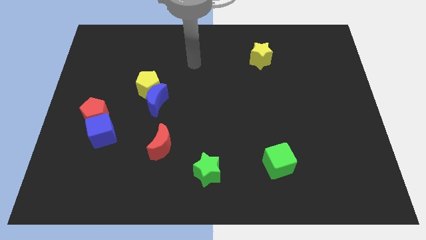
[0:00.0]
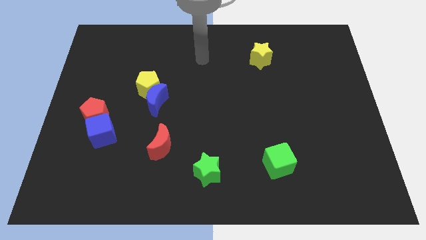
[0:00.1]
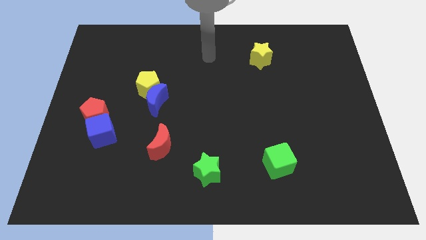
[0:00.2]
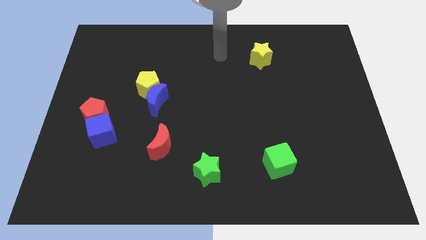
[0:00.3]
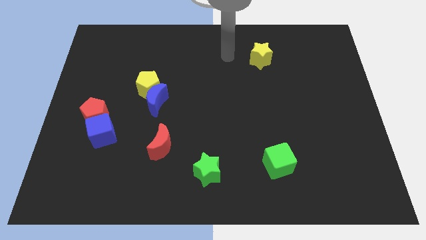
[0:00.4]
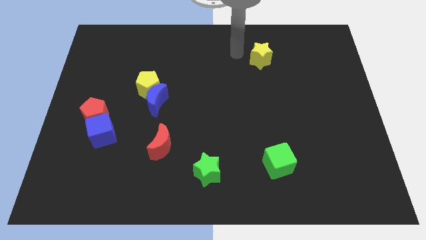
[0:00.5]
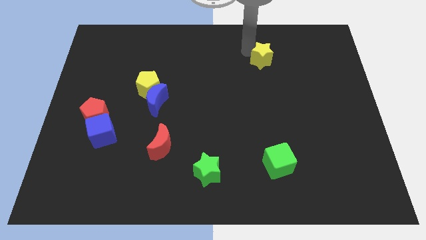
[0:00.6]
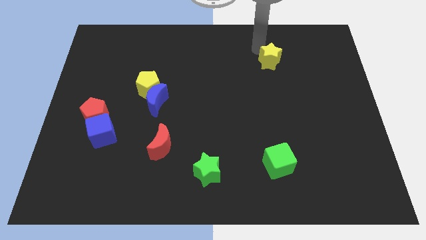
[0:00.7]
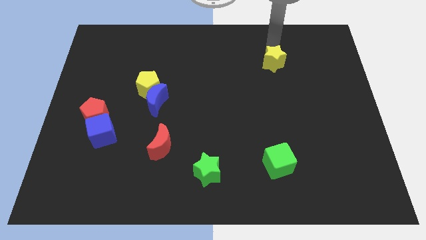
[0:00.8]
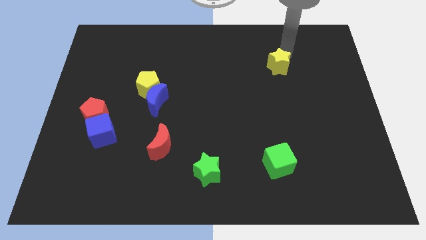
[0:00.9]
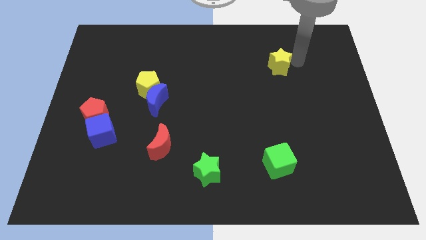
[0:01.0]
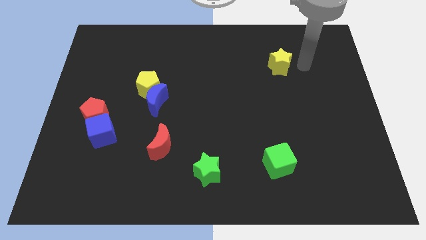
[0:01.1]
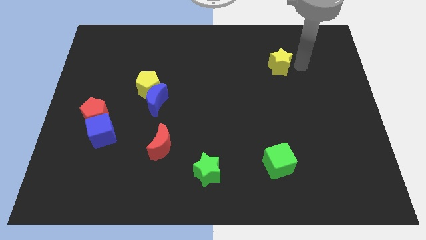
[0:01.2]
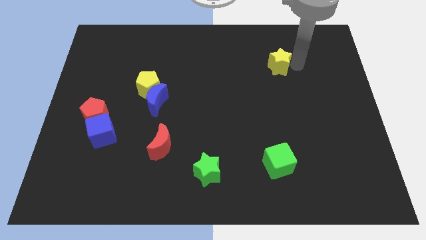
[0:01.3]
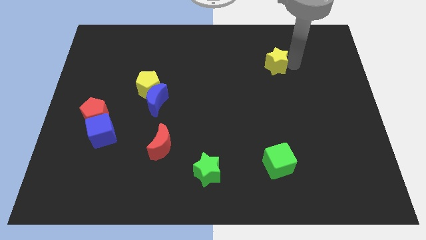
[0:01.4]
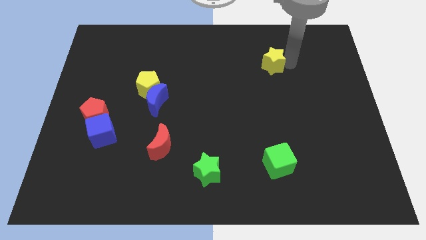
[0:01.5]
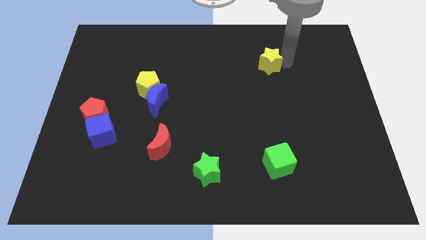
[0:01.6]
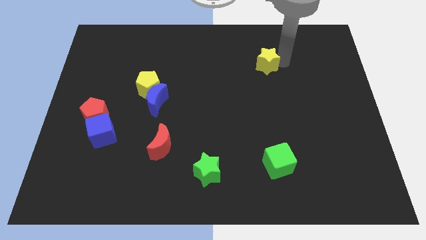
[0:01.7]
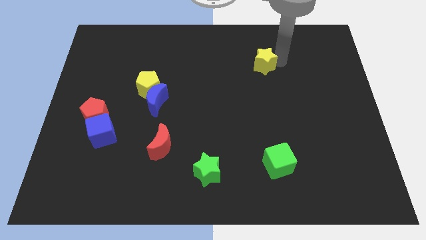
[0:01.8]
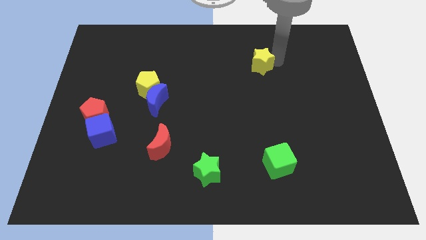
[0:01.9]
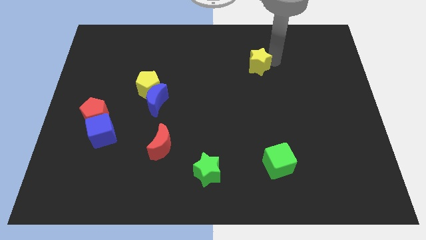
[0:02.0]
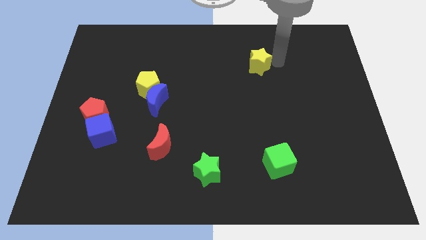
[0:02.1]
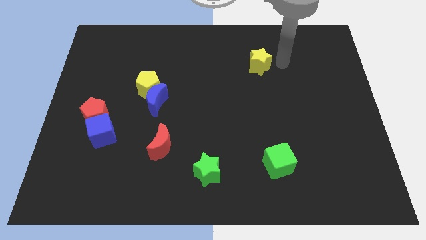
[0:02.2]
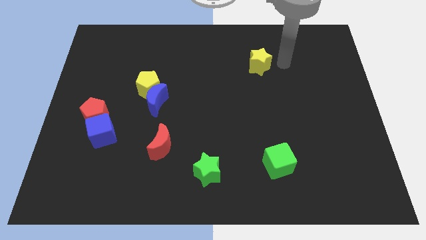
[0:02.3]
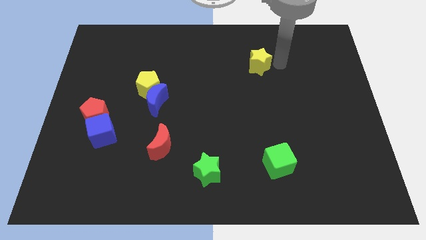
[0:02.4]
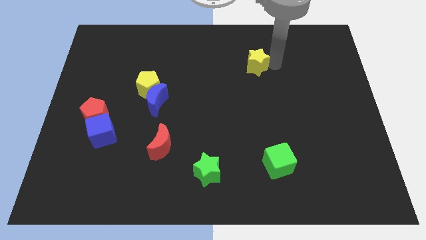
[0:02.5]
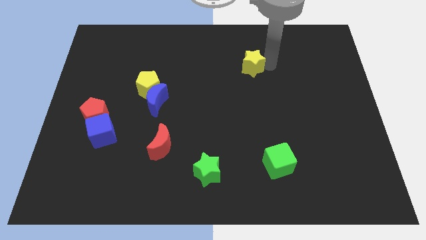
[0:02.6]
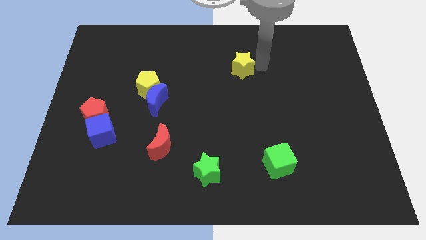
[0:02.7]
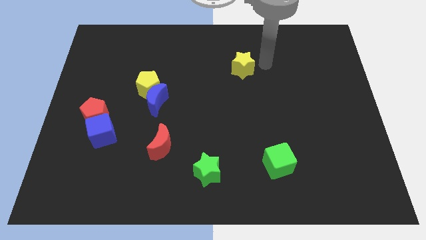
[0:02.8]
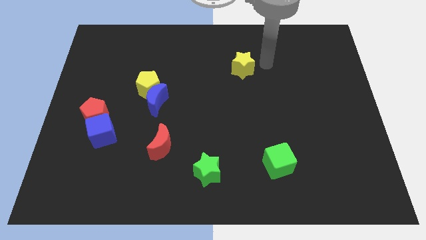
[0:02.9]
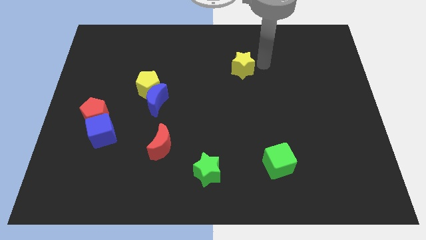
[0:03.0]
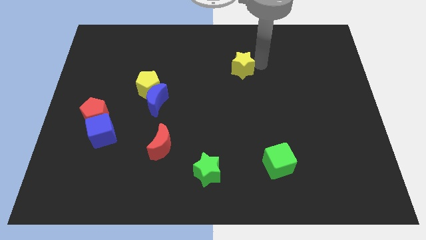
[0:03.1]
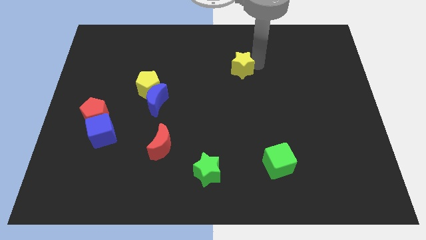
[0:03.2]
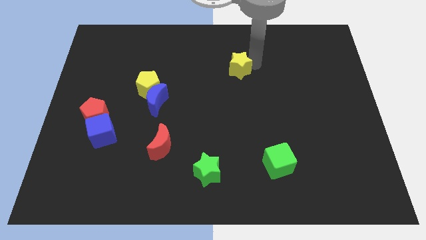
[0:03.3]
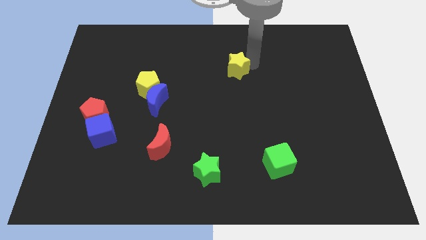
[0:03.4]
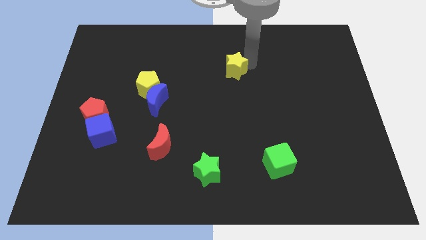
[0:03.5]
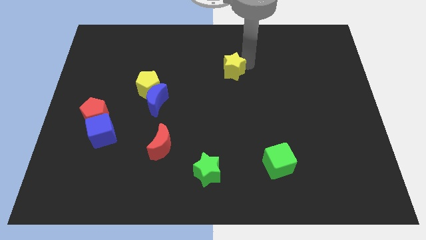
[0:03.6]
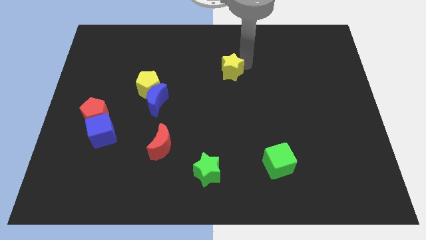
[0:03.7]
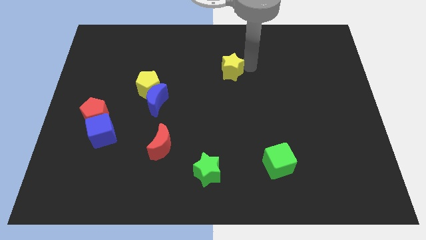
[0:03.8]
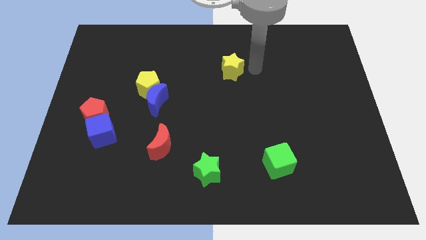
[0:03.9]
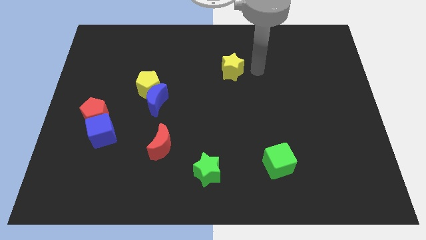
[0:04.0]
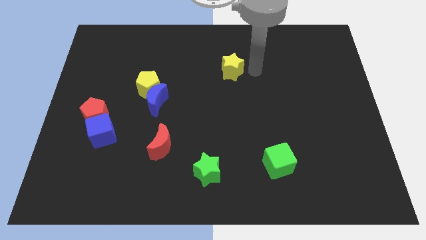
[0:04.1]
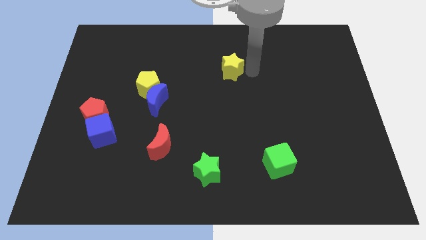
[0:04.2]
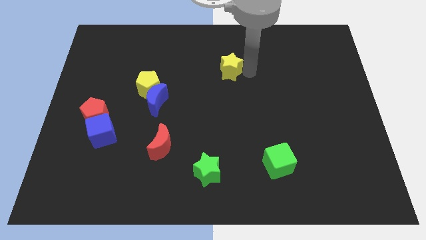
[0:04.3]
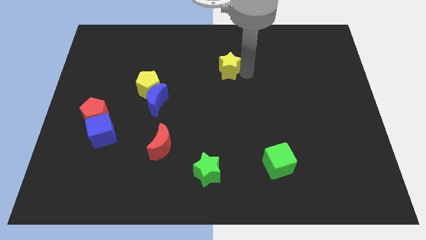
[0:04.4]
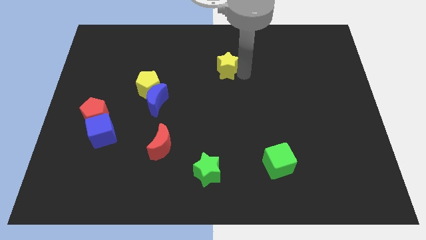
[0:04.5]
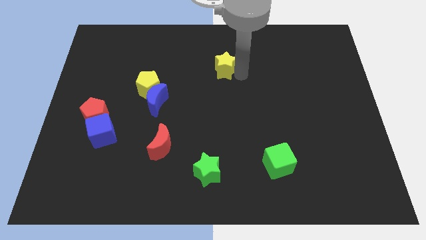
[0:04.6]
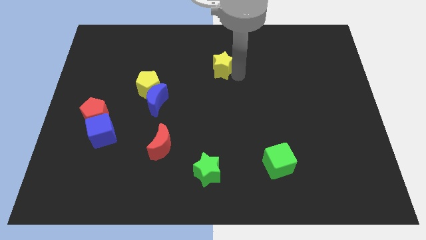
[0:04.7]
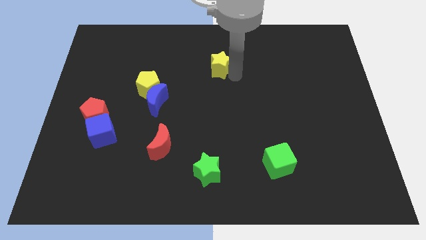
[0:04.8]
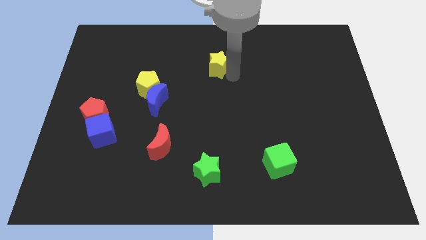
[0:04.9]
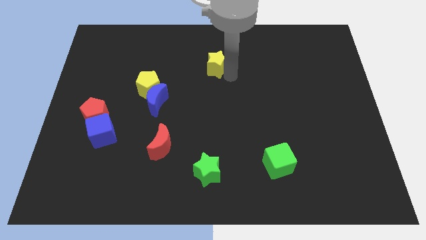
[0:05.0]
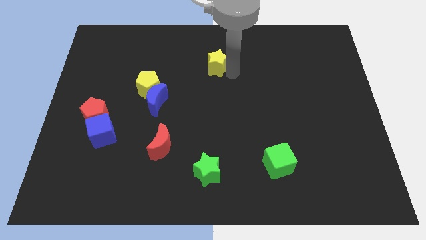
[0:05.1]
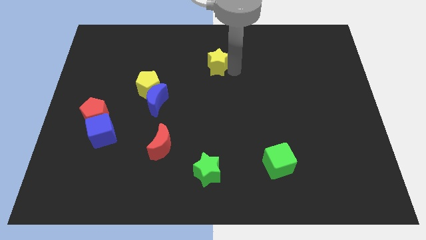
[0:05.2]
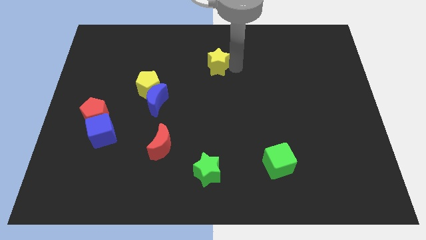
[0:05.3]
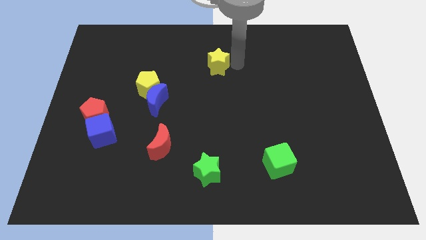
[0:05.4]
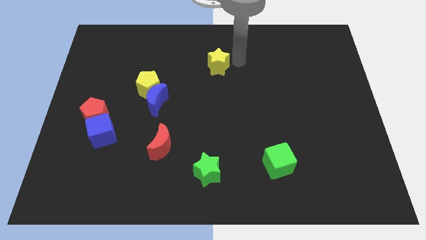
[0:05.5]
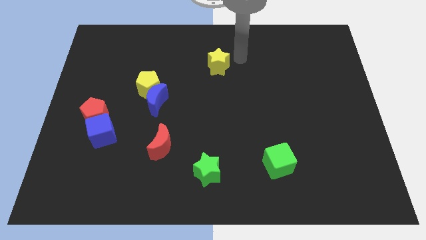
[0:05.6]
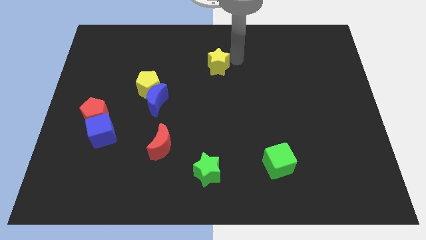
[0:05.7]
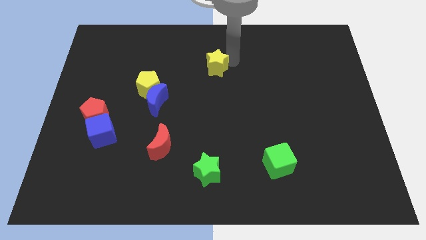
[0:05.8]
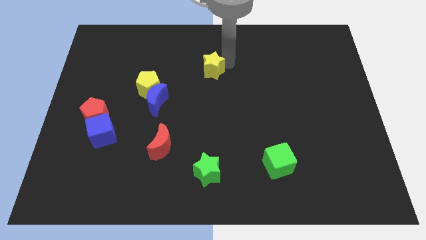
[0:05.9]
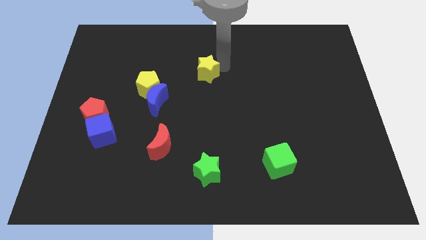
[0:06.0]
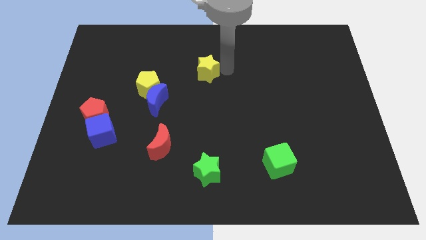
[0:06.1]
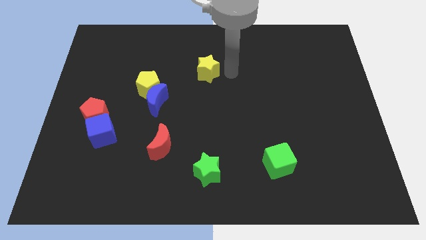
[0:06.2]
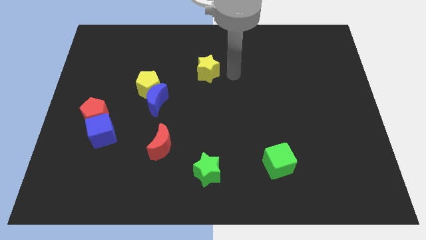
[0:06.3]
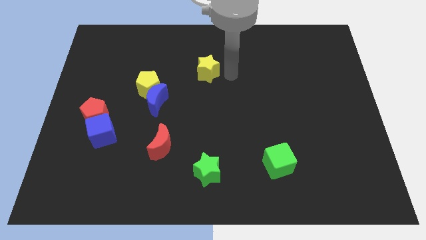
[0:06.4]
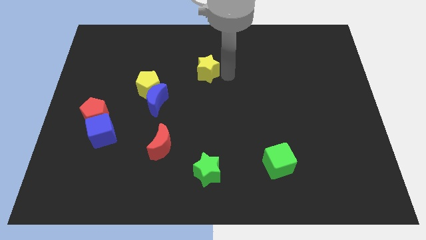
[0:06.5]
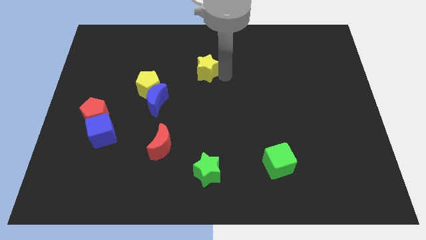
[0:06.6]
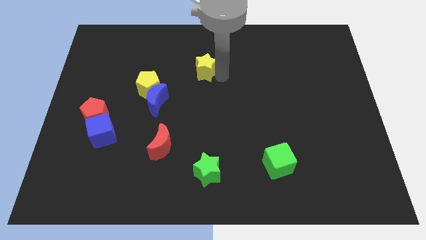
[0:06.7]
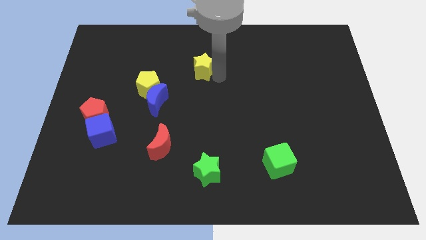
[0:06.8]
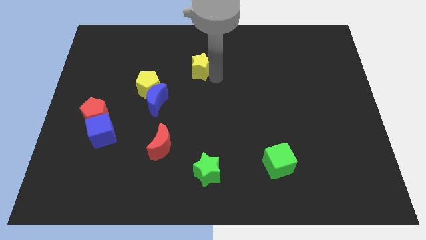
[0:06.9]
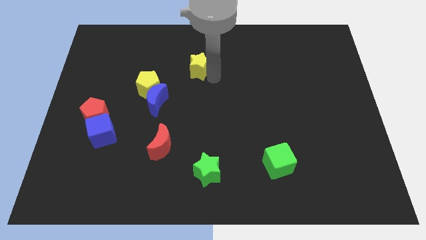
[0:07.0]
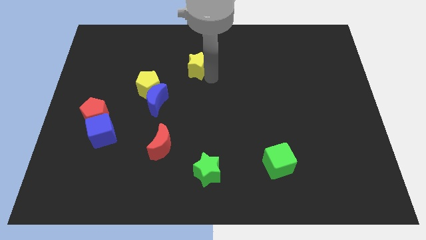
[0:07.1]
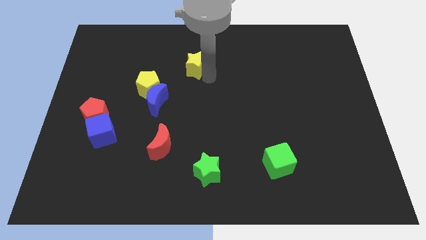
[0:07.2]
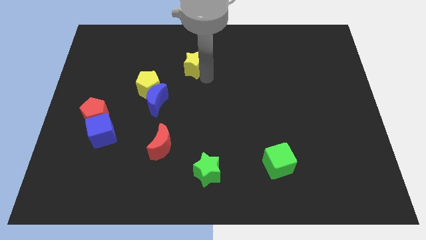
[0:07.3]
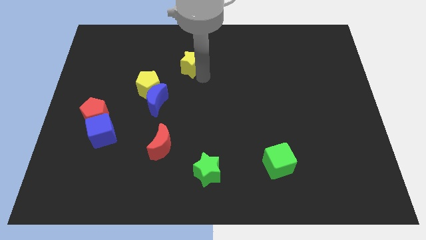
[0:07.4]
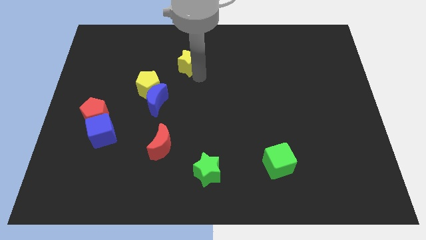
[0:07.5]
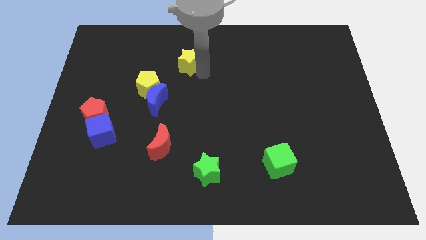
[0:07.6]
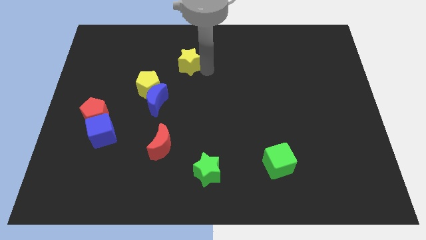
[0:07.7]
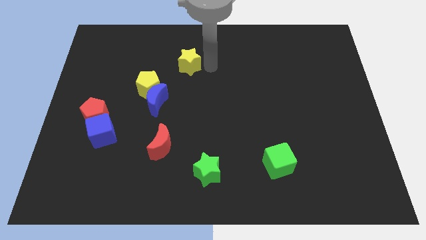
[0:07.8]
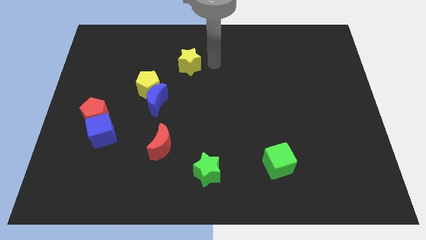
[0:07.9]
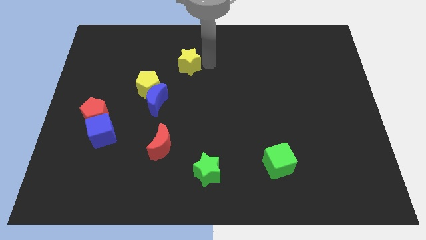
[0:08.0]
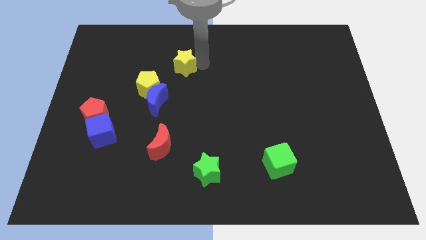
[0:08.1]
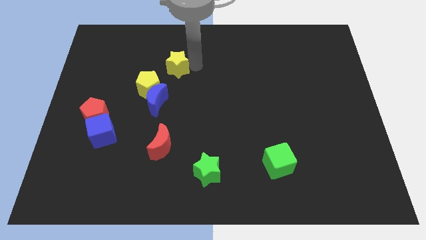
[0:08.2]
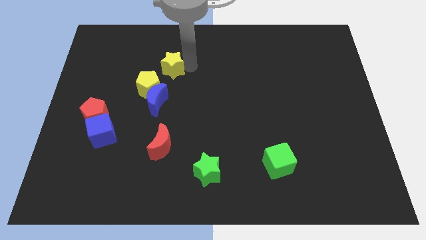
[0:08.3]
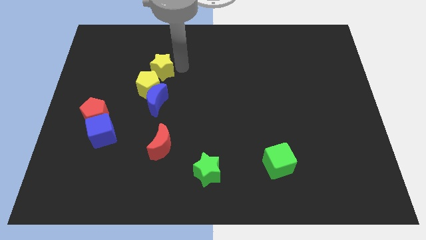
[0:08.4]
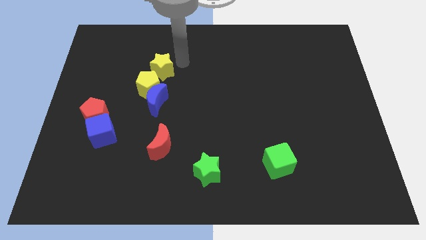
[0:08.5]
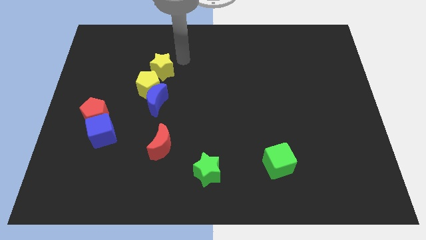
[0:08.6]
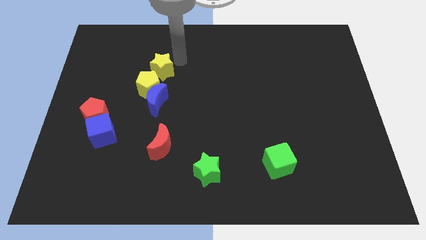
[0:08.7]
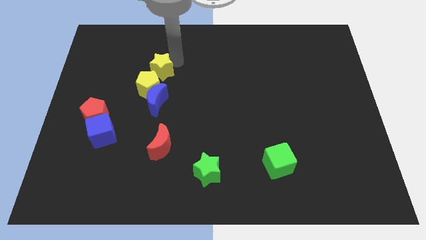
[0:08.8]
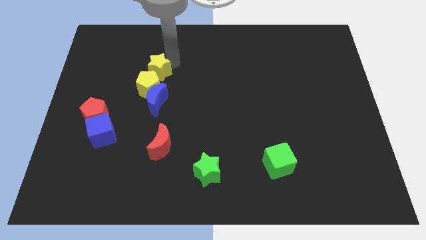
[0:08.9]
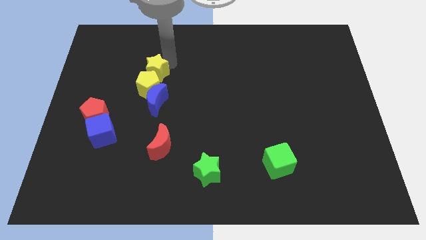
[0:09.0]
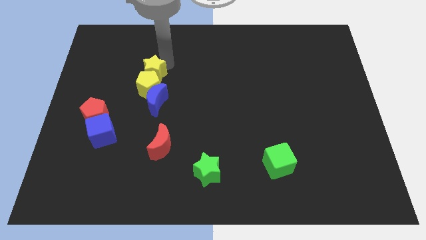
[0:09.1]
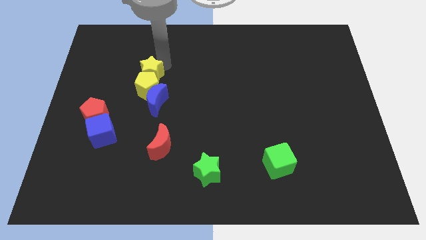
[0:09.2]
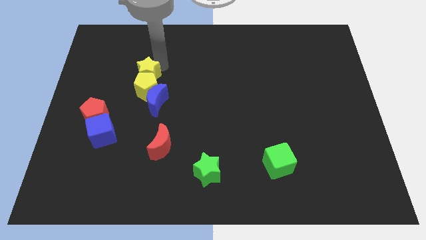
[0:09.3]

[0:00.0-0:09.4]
move the yellow star to the top left of the blue moon
